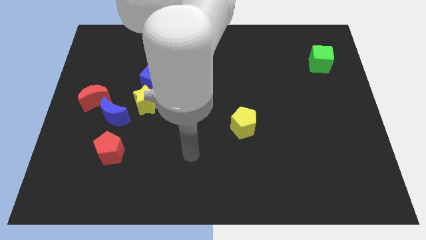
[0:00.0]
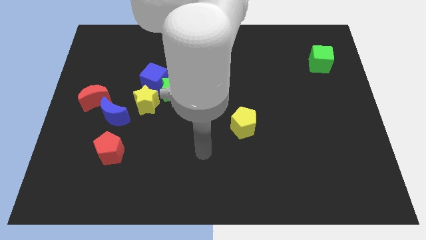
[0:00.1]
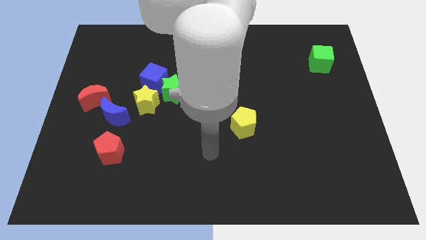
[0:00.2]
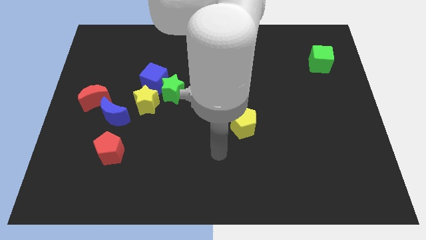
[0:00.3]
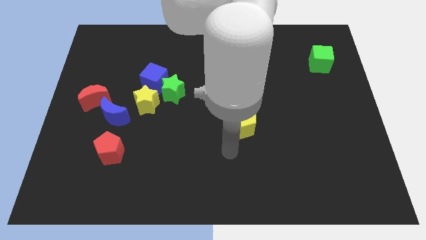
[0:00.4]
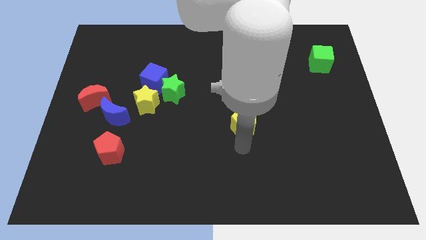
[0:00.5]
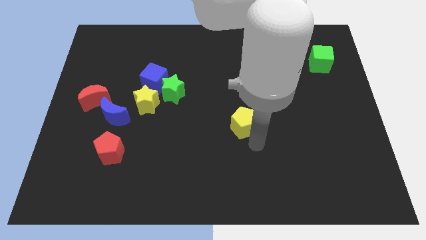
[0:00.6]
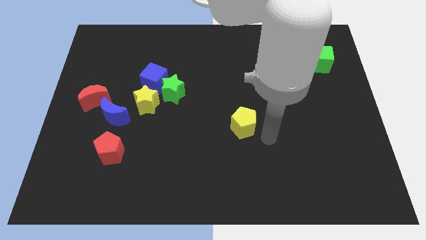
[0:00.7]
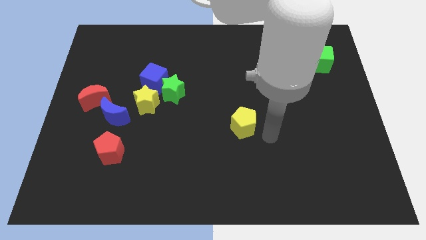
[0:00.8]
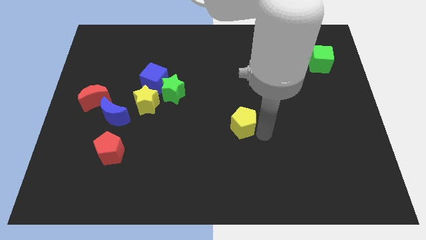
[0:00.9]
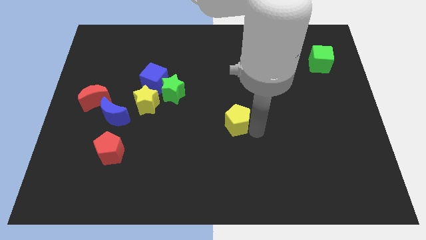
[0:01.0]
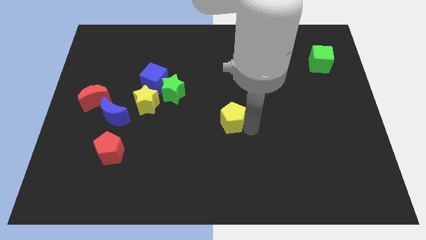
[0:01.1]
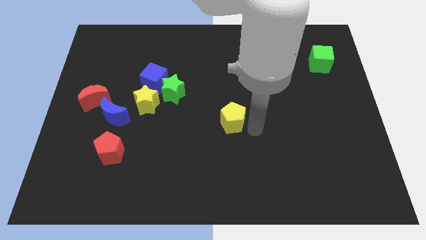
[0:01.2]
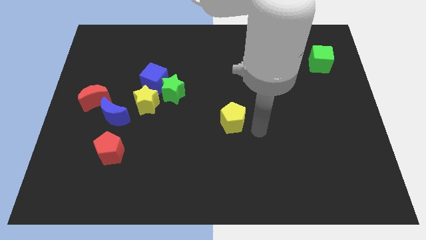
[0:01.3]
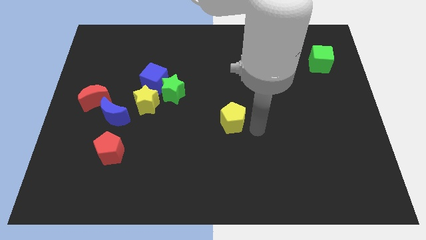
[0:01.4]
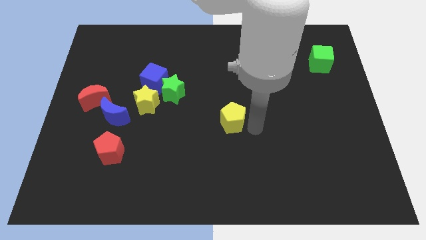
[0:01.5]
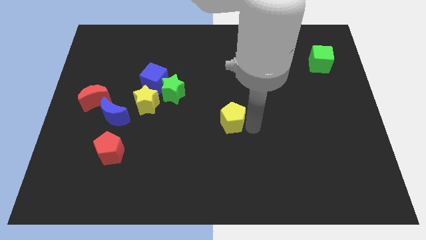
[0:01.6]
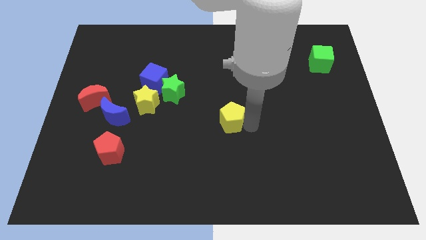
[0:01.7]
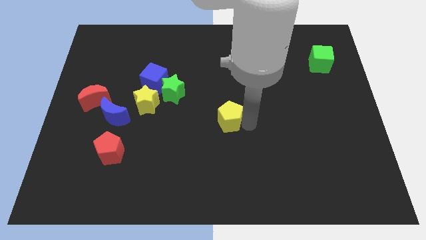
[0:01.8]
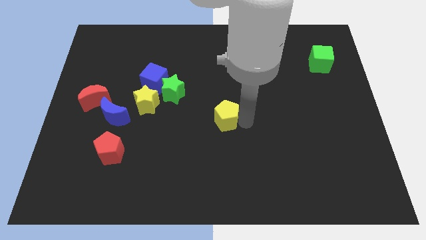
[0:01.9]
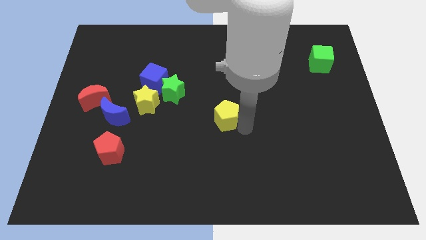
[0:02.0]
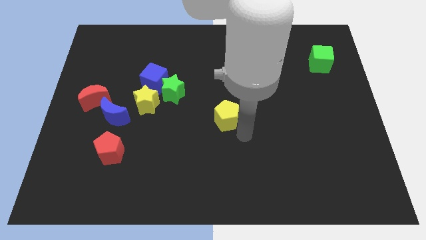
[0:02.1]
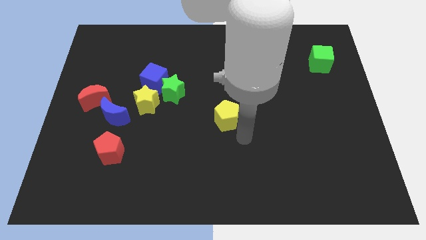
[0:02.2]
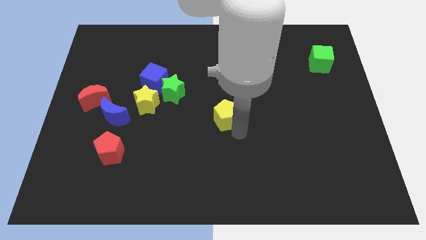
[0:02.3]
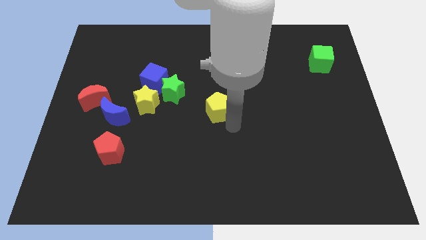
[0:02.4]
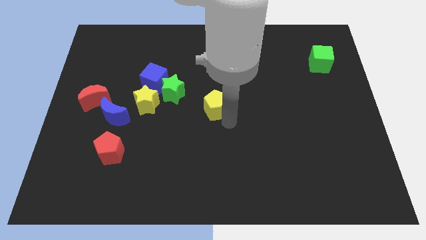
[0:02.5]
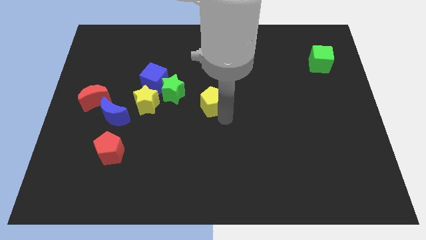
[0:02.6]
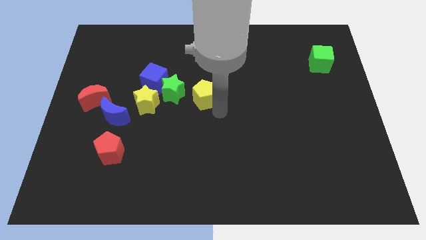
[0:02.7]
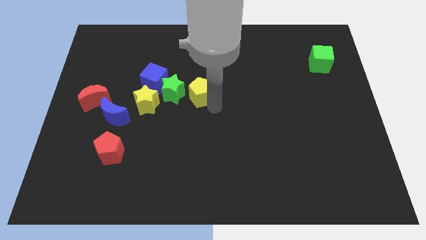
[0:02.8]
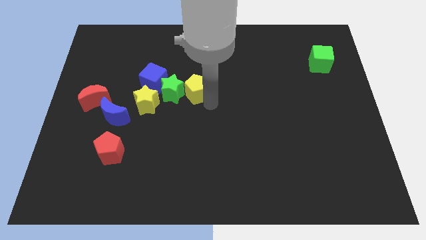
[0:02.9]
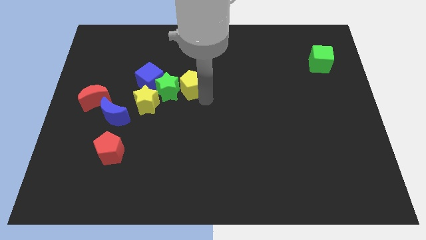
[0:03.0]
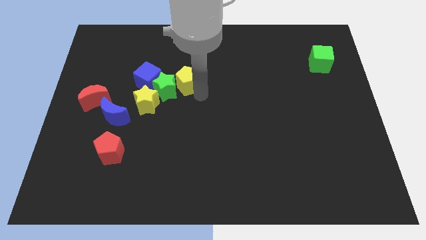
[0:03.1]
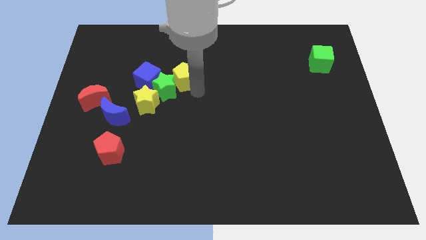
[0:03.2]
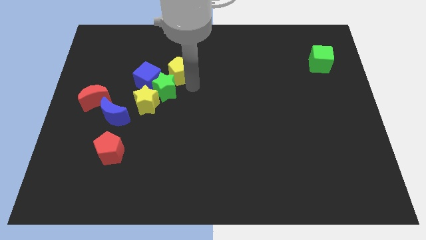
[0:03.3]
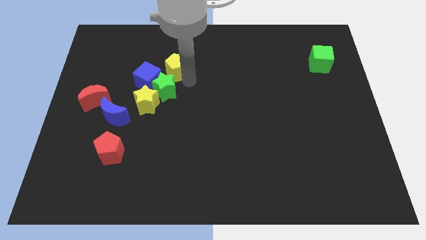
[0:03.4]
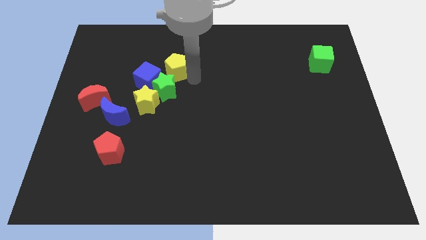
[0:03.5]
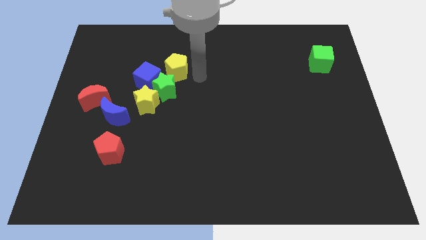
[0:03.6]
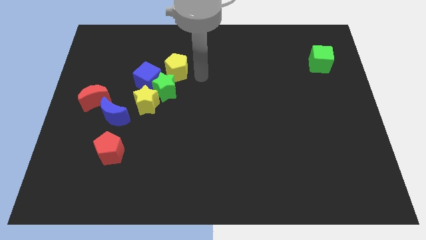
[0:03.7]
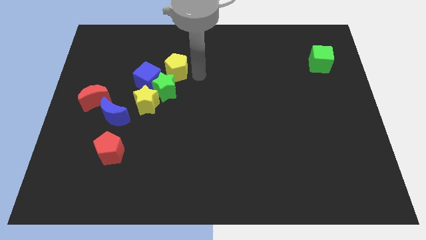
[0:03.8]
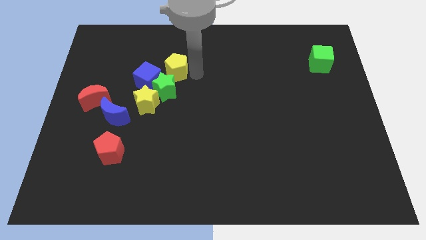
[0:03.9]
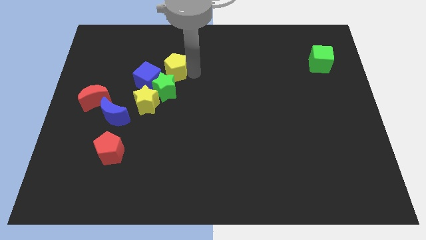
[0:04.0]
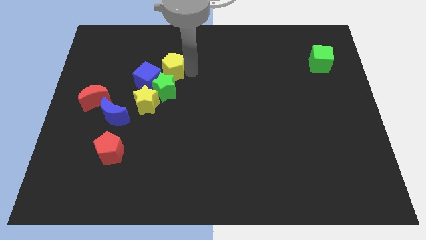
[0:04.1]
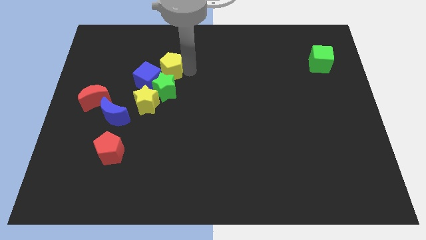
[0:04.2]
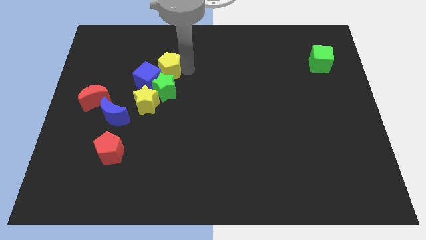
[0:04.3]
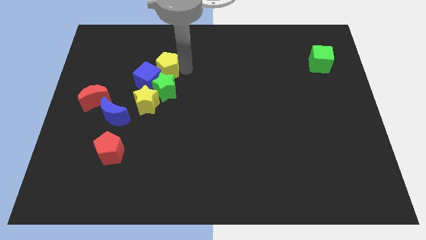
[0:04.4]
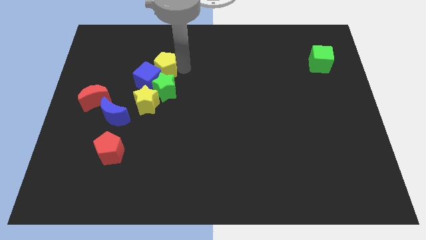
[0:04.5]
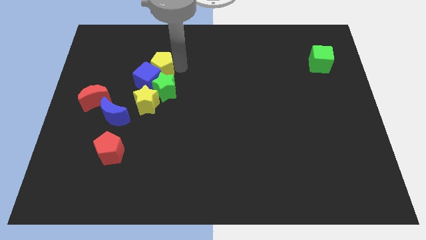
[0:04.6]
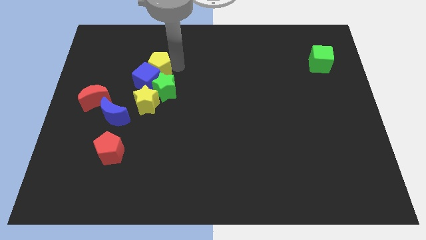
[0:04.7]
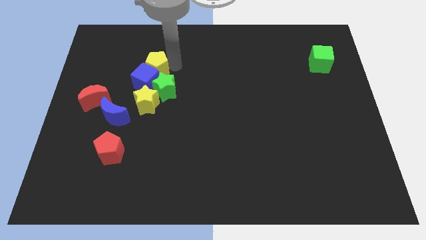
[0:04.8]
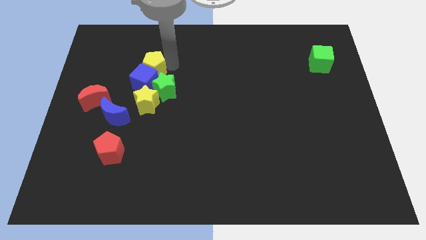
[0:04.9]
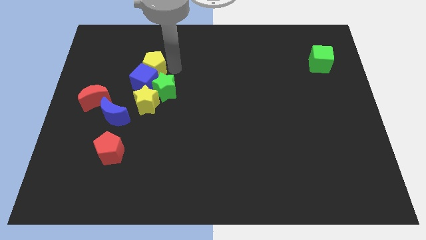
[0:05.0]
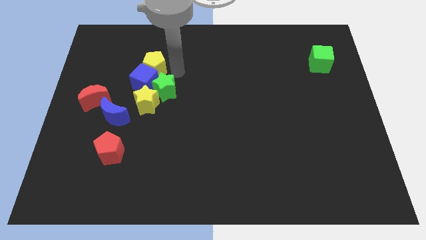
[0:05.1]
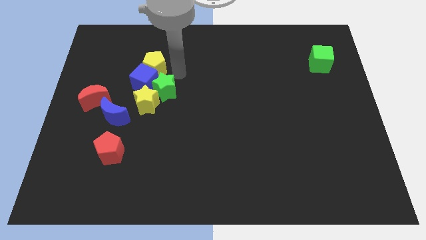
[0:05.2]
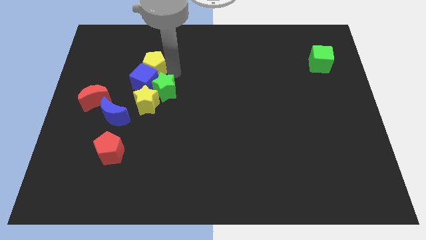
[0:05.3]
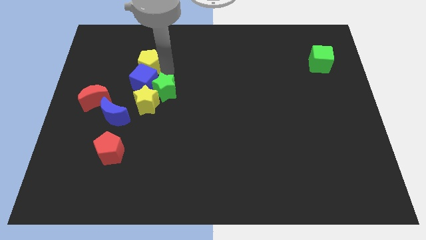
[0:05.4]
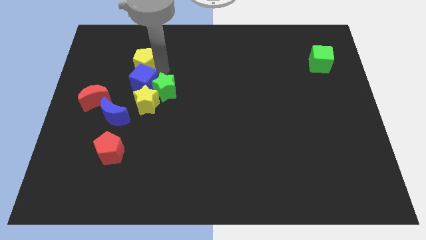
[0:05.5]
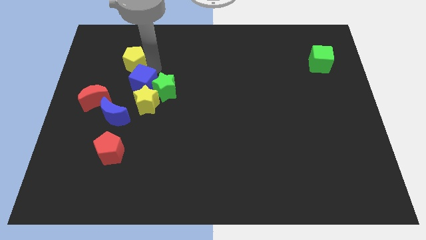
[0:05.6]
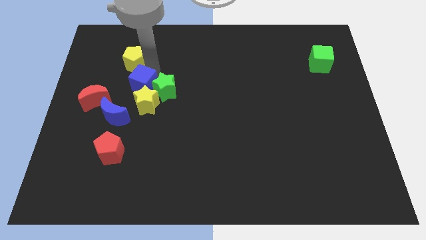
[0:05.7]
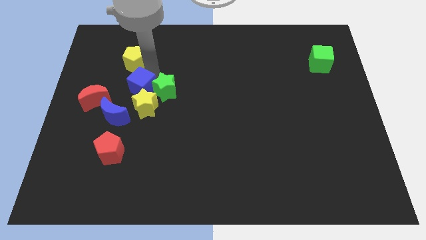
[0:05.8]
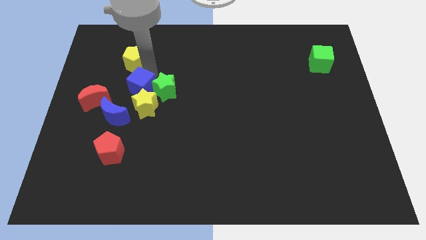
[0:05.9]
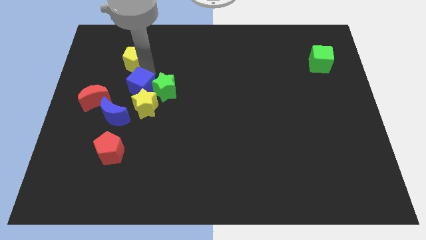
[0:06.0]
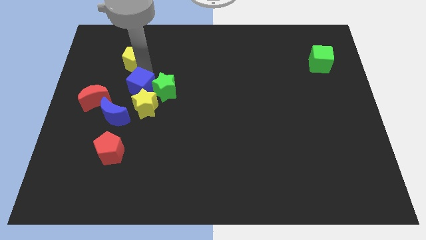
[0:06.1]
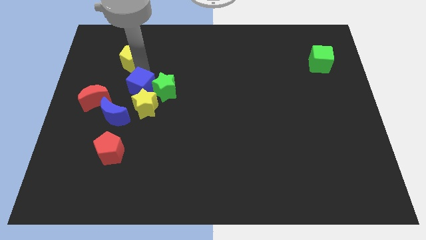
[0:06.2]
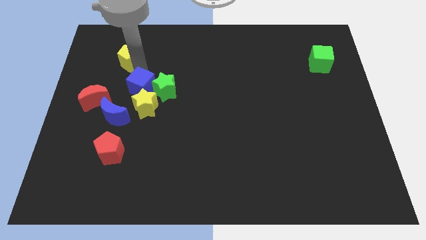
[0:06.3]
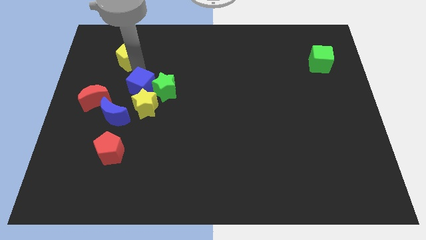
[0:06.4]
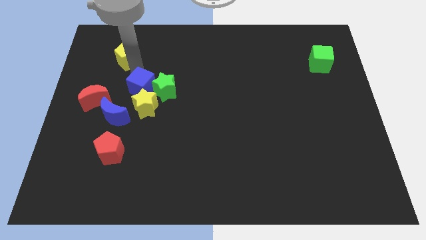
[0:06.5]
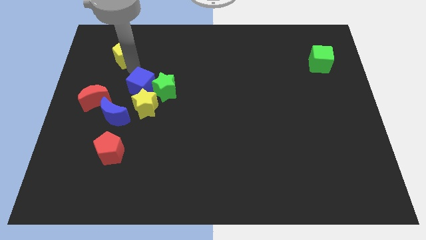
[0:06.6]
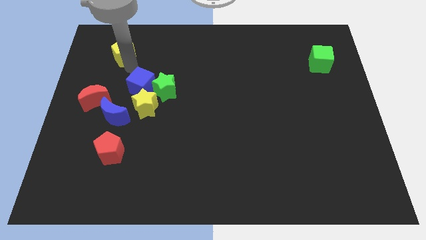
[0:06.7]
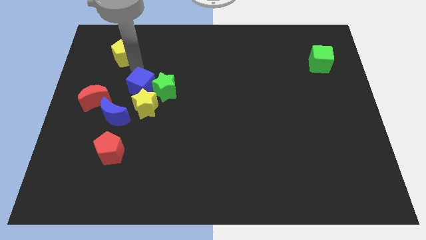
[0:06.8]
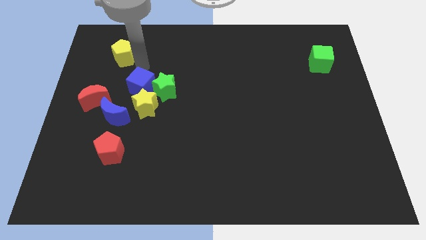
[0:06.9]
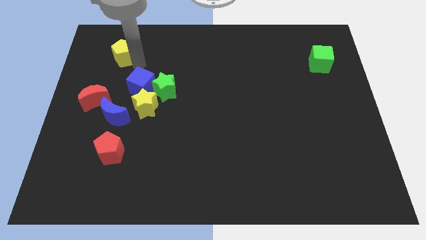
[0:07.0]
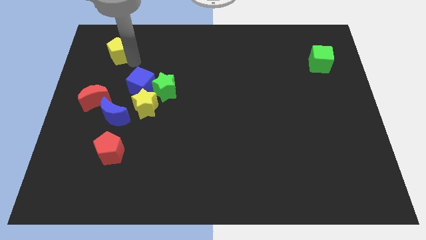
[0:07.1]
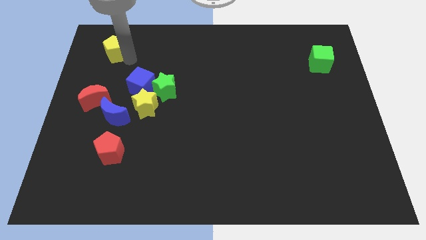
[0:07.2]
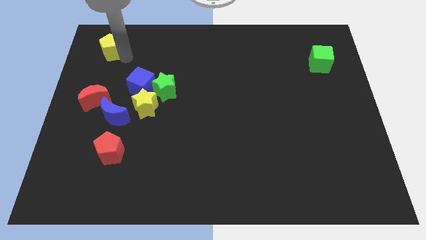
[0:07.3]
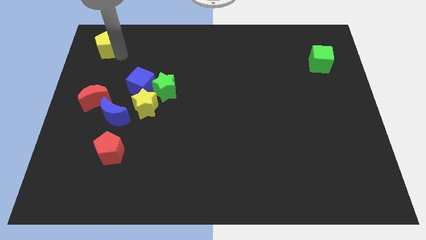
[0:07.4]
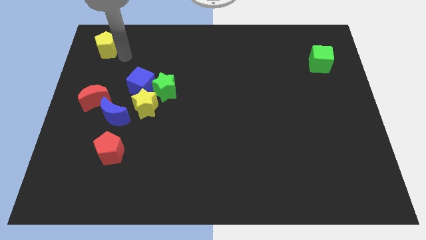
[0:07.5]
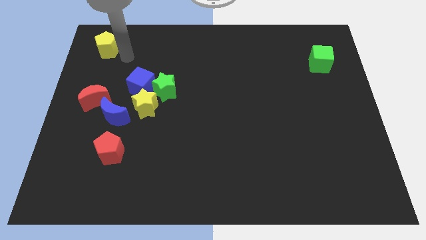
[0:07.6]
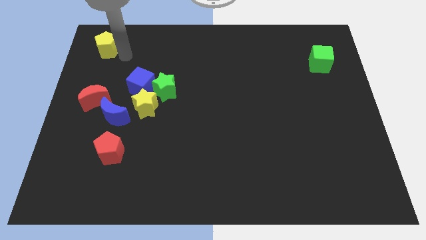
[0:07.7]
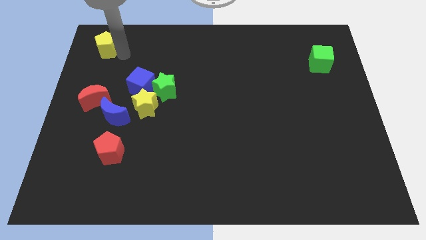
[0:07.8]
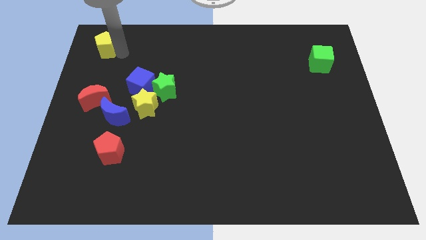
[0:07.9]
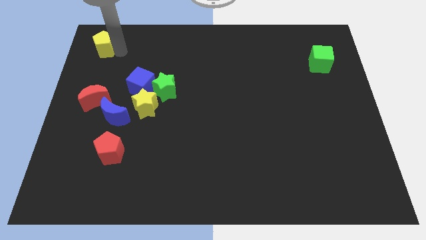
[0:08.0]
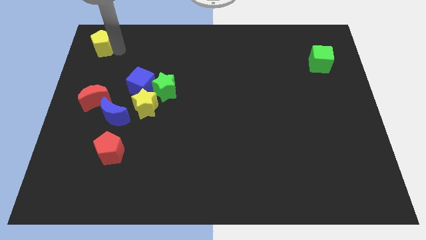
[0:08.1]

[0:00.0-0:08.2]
put the yellow pentagon to the top left corner
